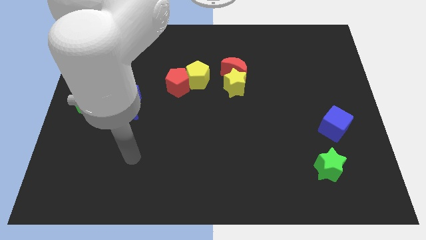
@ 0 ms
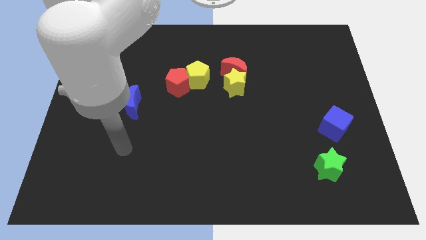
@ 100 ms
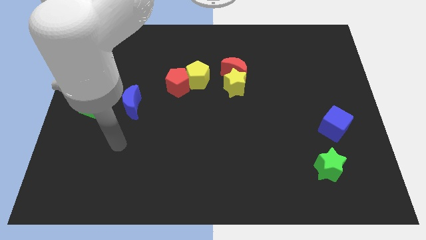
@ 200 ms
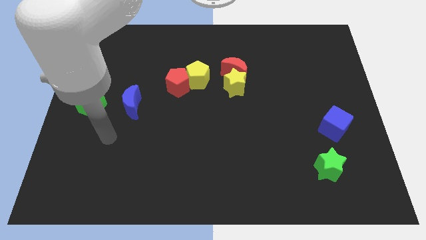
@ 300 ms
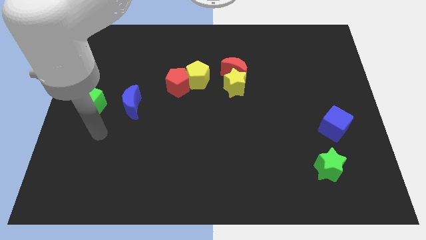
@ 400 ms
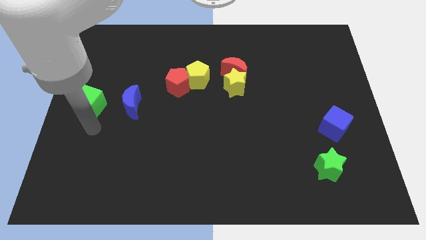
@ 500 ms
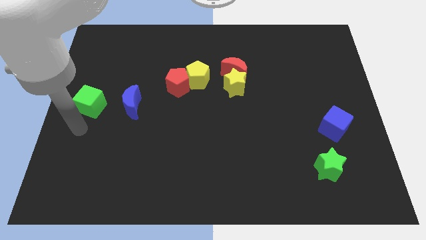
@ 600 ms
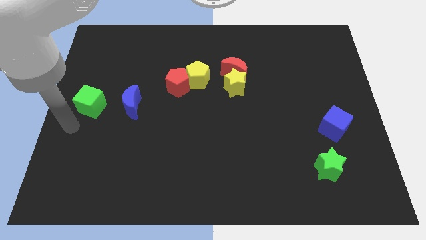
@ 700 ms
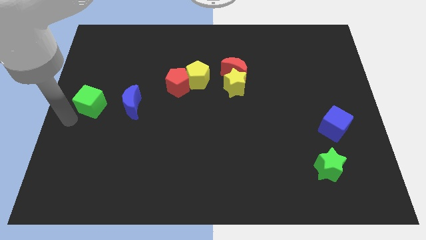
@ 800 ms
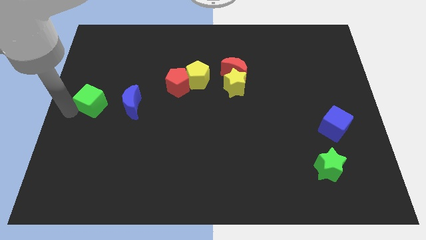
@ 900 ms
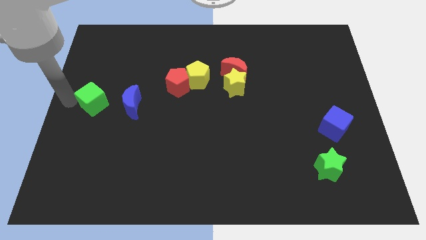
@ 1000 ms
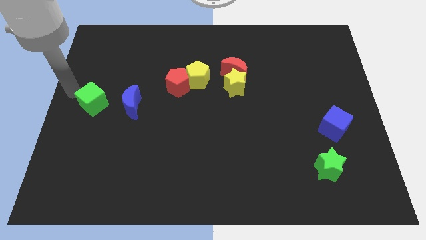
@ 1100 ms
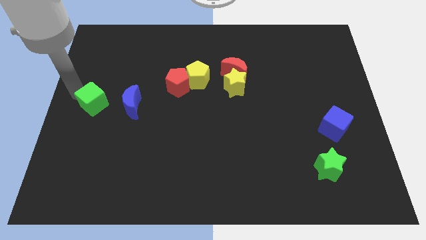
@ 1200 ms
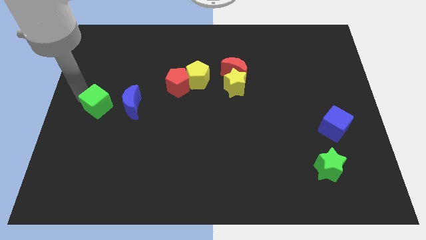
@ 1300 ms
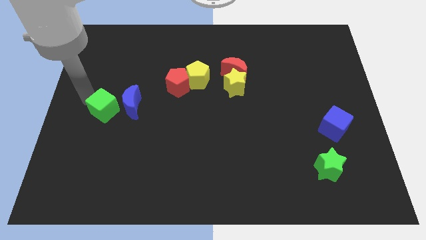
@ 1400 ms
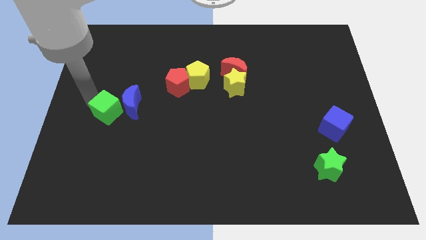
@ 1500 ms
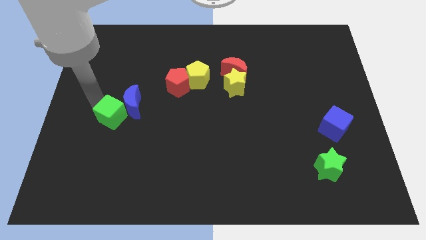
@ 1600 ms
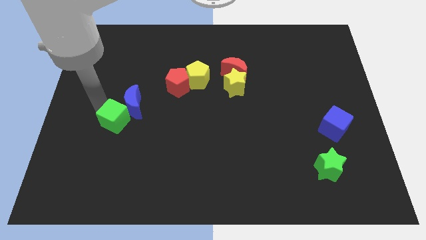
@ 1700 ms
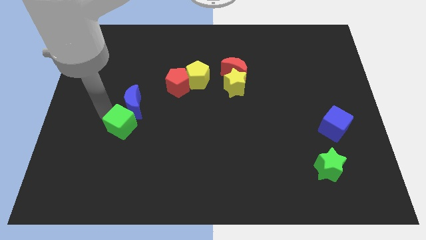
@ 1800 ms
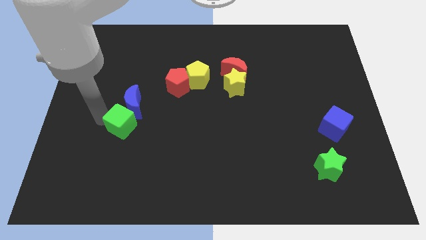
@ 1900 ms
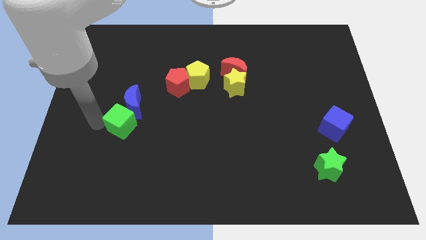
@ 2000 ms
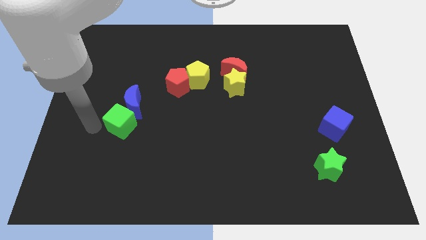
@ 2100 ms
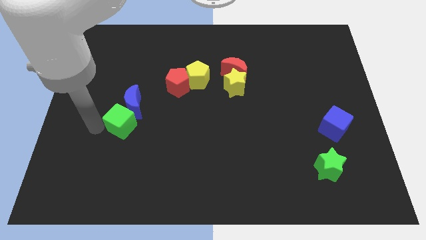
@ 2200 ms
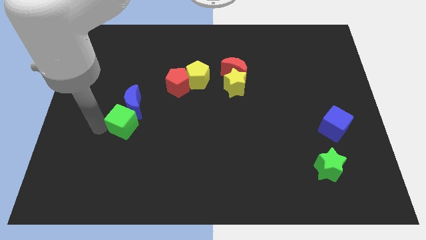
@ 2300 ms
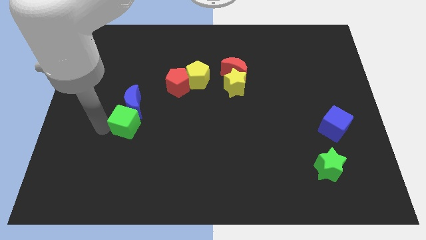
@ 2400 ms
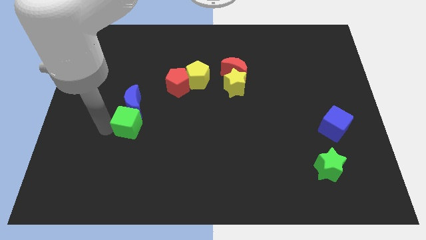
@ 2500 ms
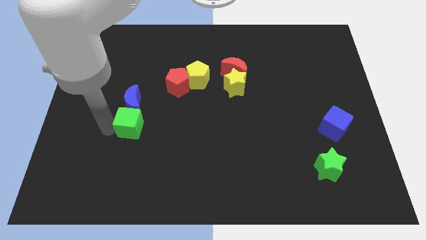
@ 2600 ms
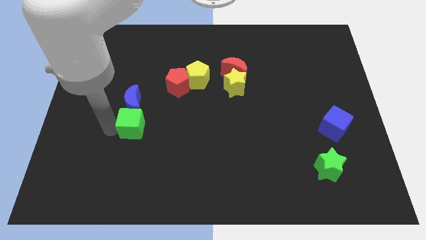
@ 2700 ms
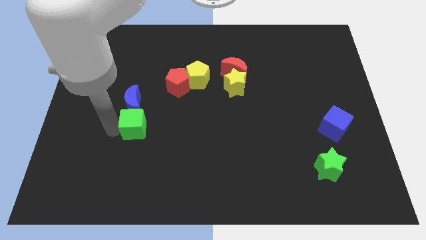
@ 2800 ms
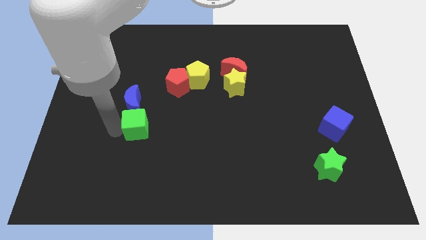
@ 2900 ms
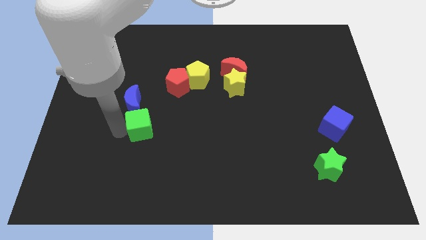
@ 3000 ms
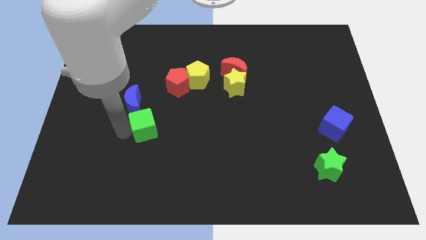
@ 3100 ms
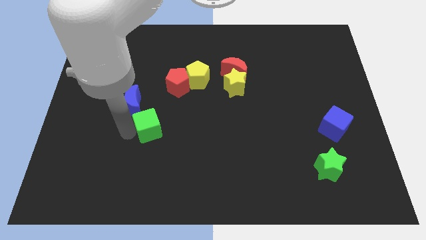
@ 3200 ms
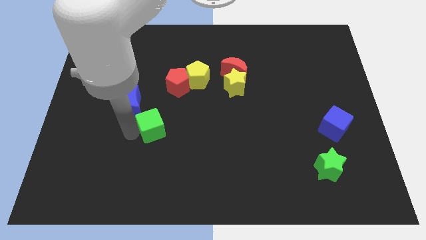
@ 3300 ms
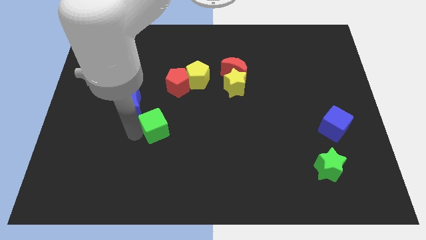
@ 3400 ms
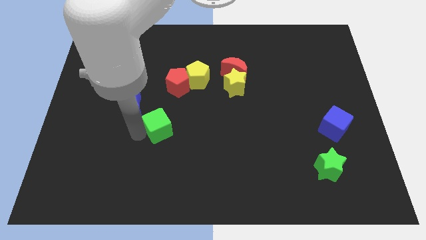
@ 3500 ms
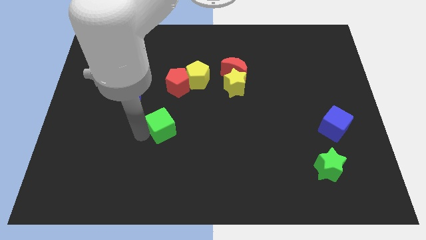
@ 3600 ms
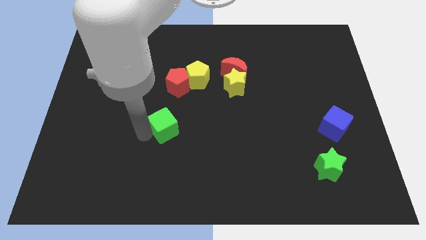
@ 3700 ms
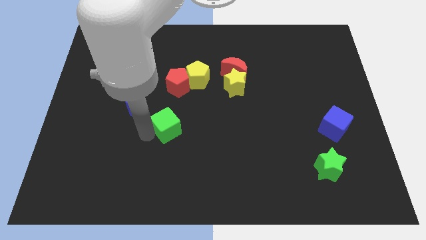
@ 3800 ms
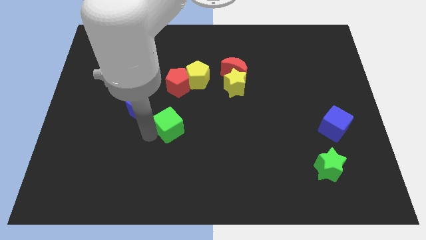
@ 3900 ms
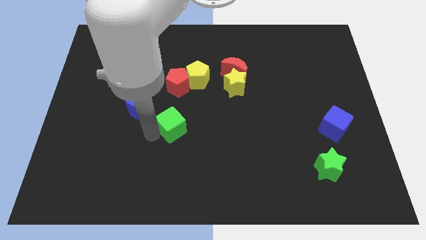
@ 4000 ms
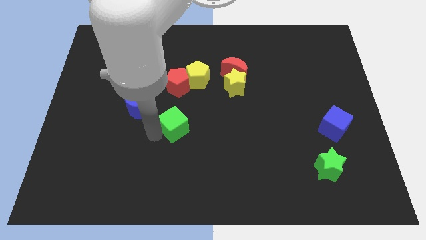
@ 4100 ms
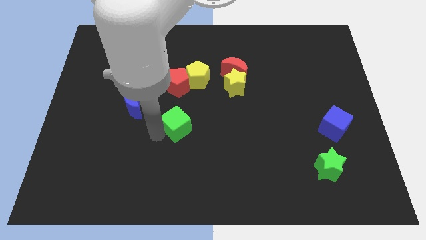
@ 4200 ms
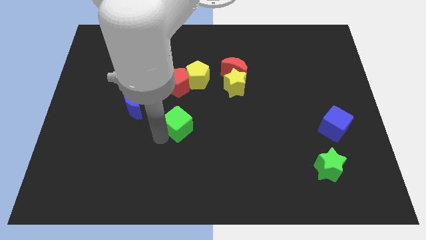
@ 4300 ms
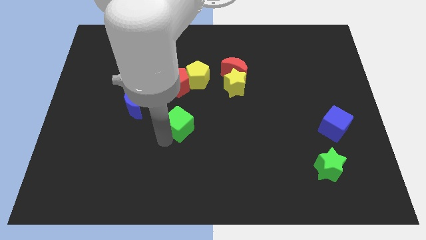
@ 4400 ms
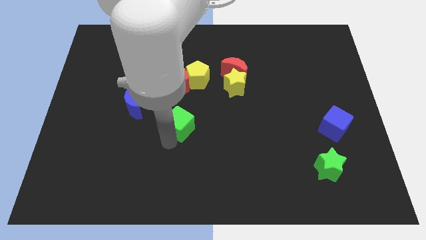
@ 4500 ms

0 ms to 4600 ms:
push the green cube right

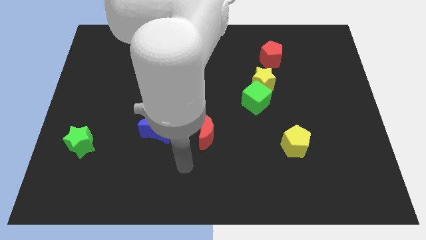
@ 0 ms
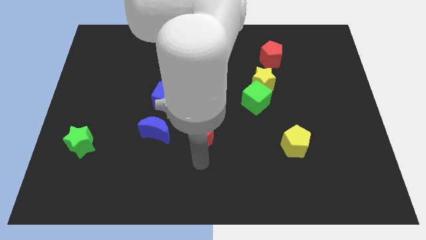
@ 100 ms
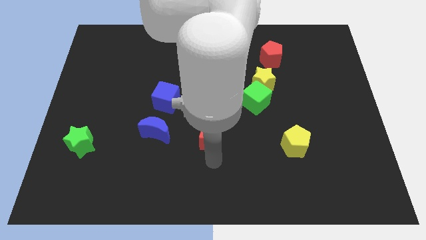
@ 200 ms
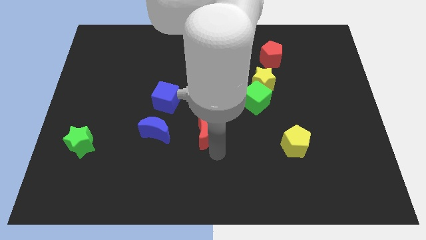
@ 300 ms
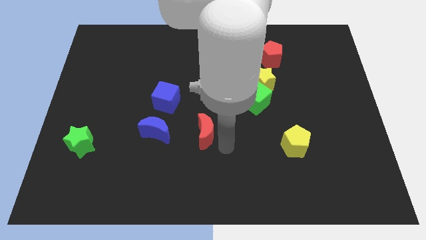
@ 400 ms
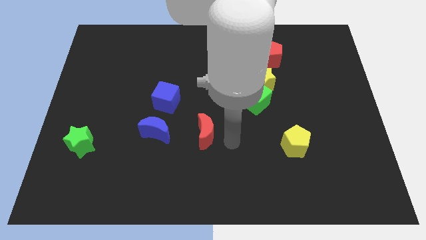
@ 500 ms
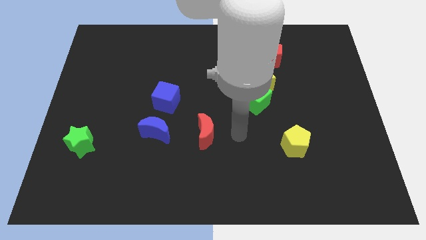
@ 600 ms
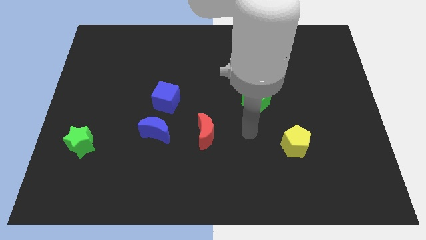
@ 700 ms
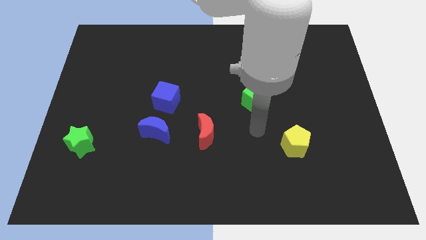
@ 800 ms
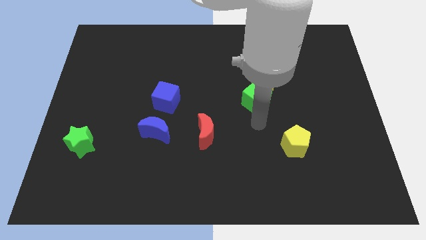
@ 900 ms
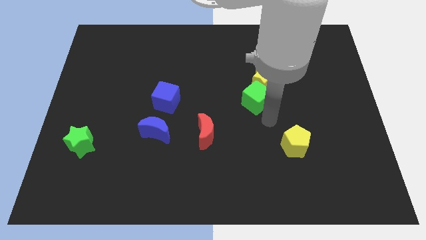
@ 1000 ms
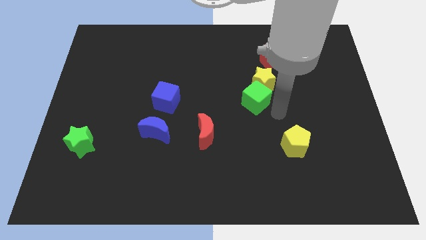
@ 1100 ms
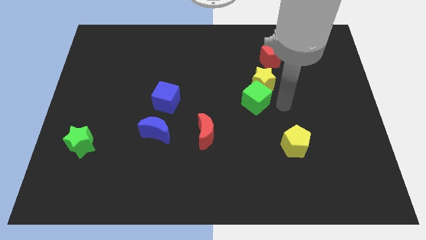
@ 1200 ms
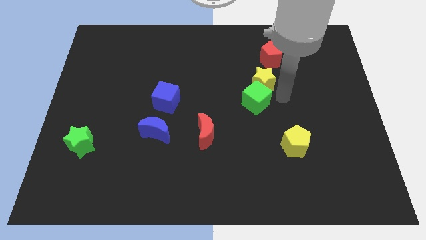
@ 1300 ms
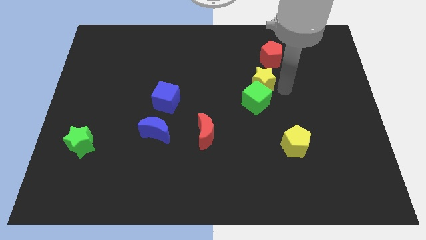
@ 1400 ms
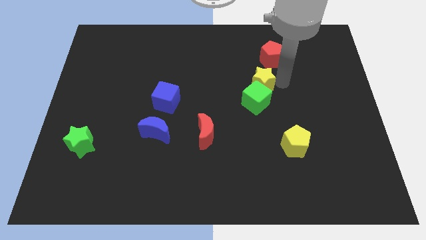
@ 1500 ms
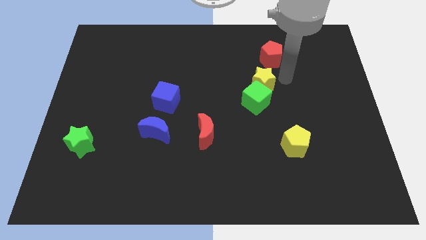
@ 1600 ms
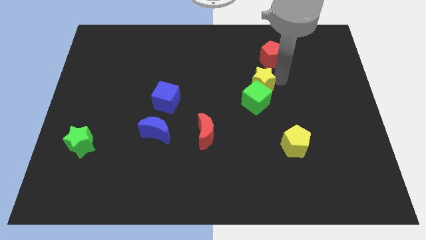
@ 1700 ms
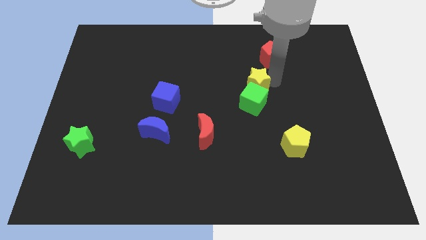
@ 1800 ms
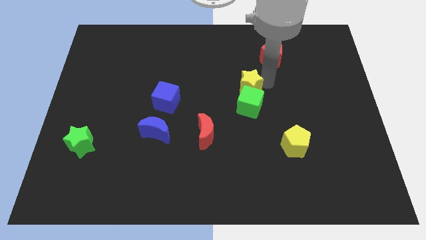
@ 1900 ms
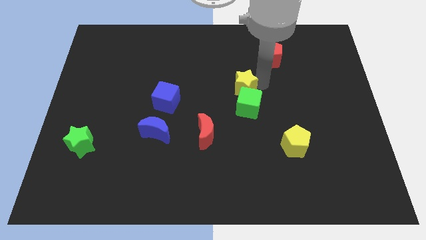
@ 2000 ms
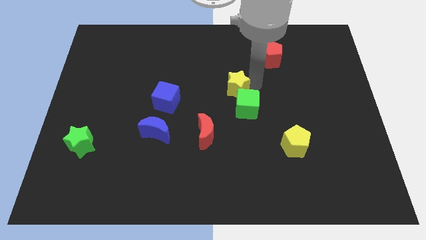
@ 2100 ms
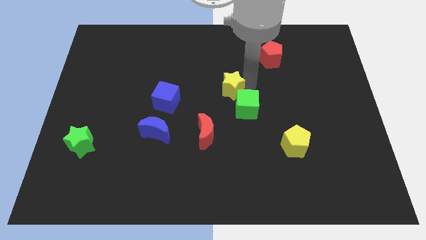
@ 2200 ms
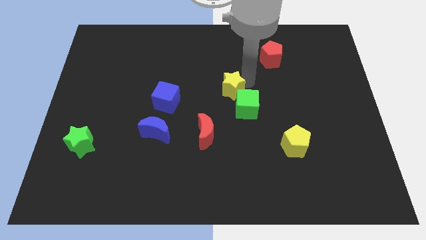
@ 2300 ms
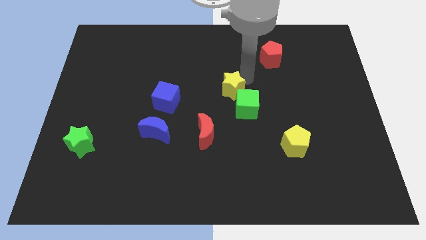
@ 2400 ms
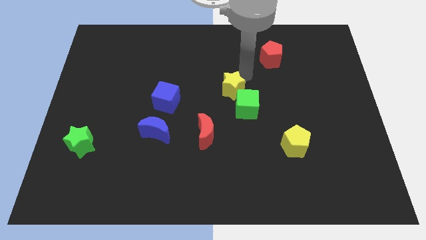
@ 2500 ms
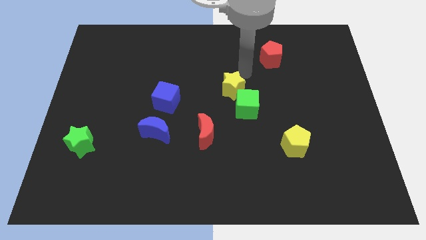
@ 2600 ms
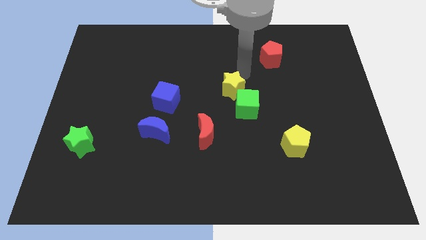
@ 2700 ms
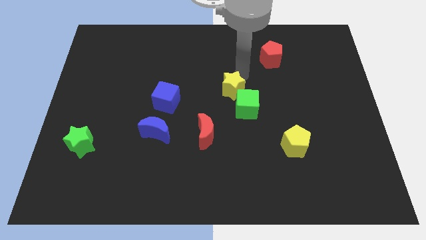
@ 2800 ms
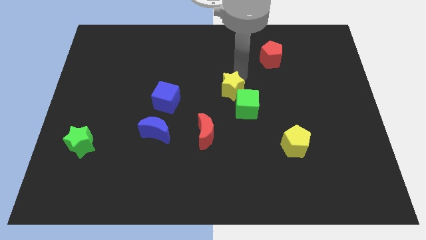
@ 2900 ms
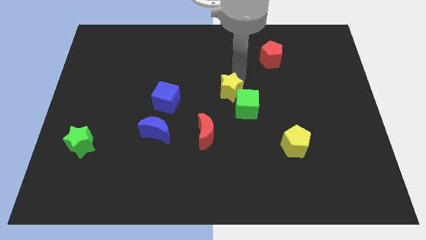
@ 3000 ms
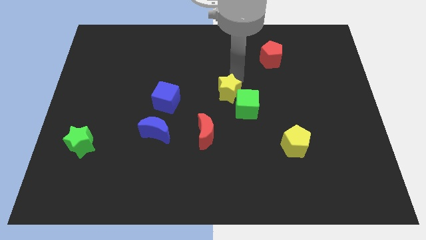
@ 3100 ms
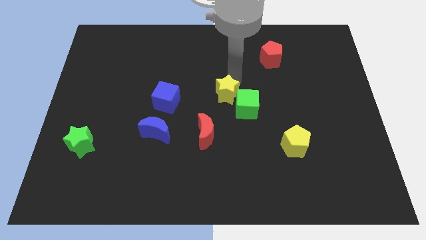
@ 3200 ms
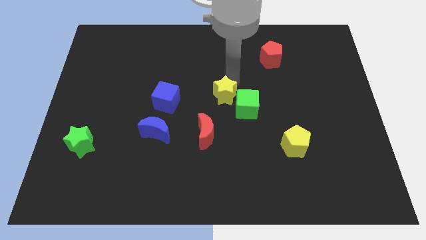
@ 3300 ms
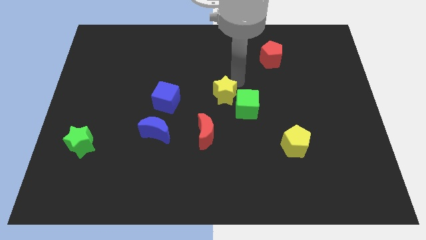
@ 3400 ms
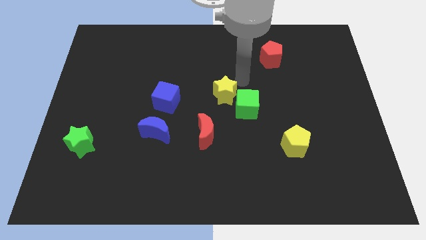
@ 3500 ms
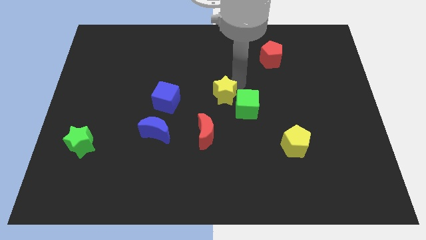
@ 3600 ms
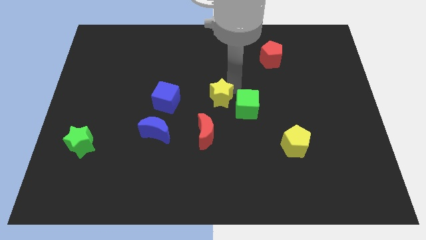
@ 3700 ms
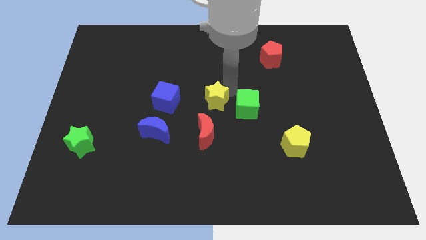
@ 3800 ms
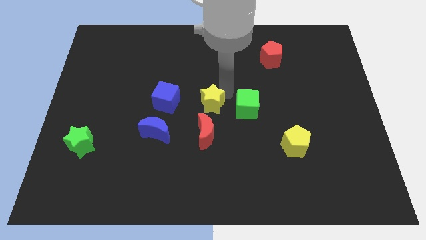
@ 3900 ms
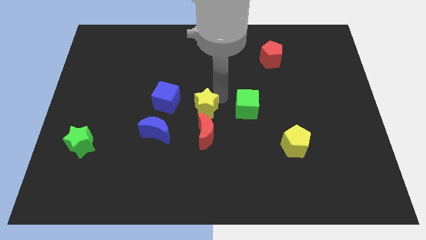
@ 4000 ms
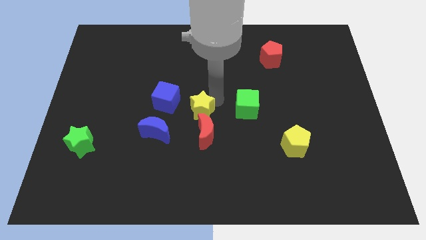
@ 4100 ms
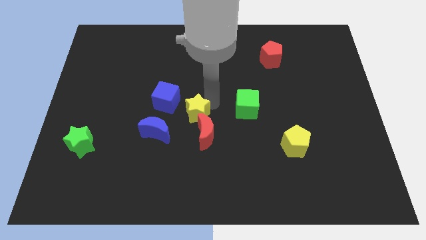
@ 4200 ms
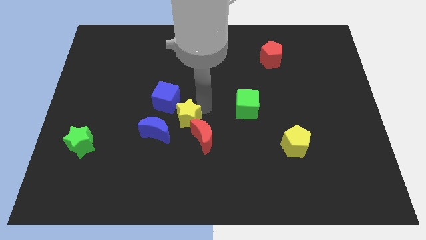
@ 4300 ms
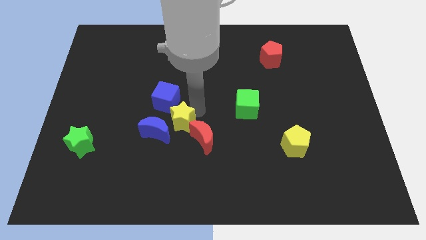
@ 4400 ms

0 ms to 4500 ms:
move the yellow star diagonally down and left
